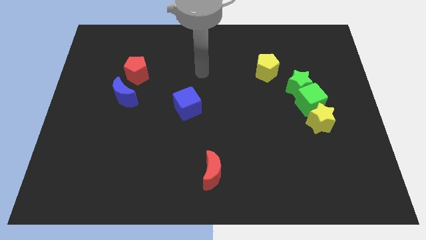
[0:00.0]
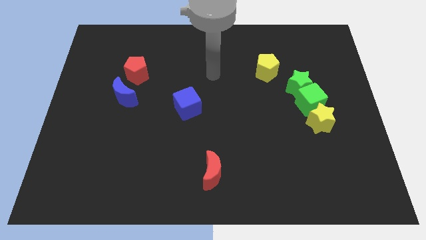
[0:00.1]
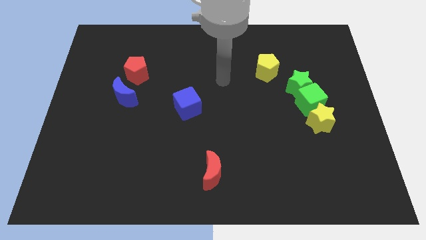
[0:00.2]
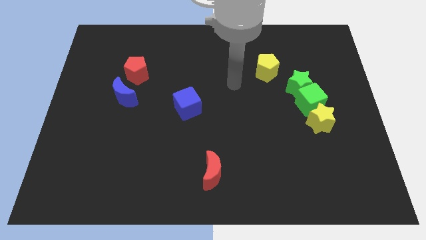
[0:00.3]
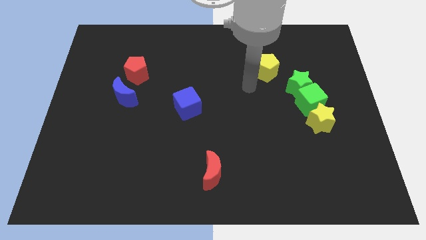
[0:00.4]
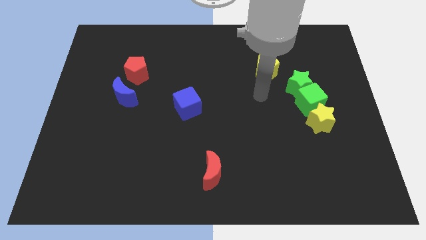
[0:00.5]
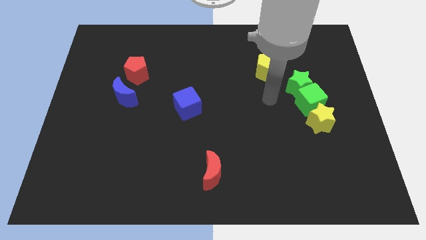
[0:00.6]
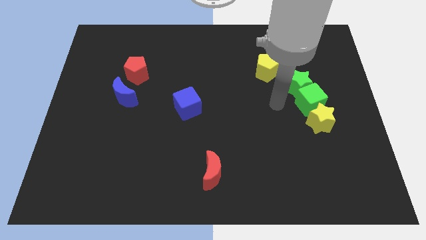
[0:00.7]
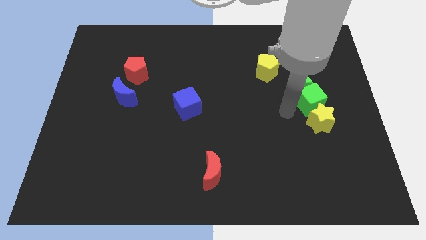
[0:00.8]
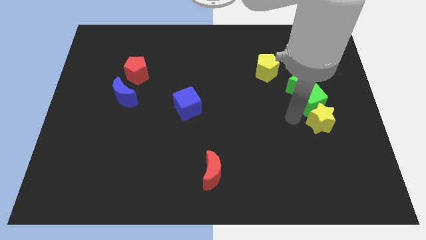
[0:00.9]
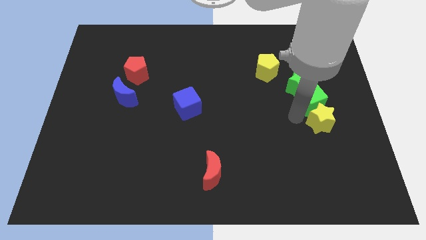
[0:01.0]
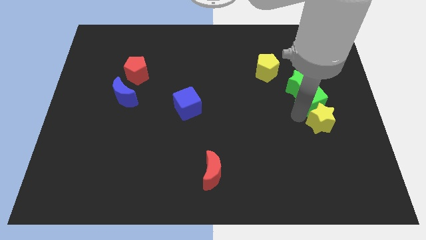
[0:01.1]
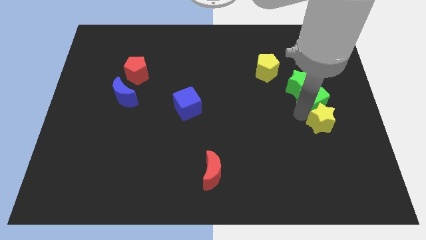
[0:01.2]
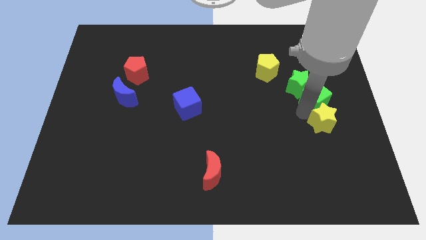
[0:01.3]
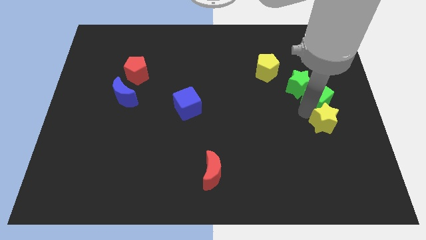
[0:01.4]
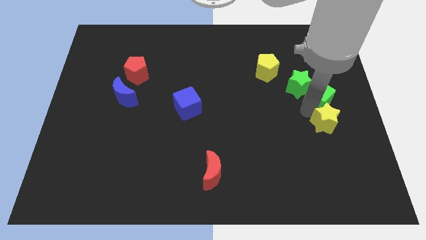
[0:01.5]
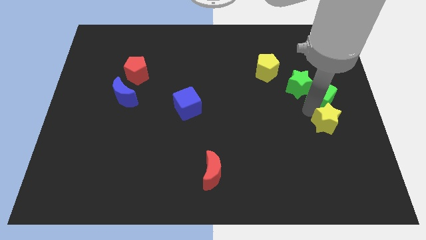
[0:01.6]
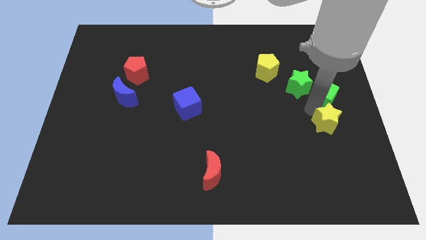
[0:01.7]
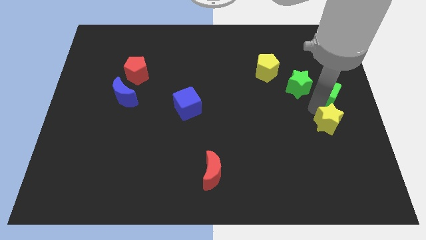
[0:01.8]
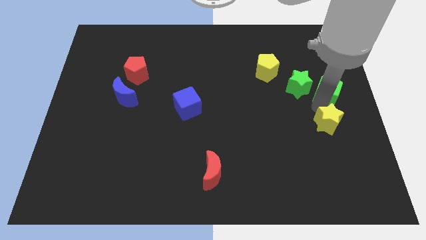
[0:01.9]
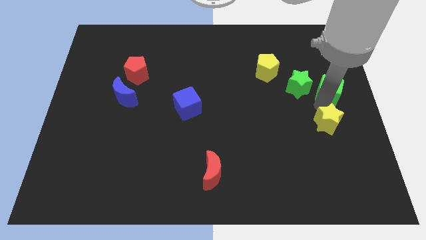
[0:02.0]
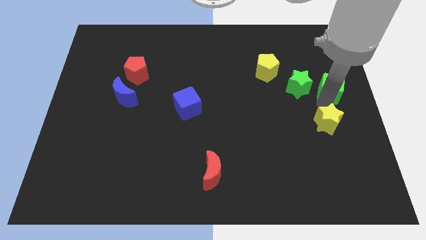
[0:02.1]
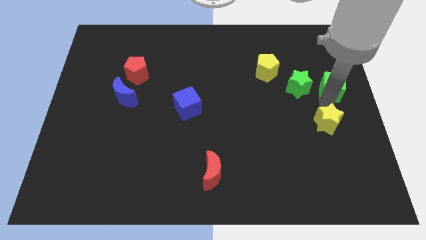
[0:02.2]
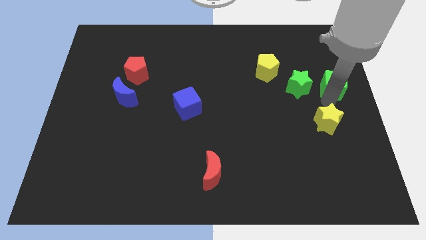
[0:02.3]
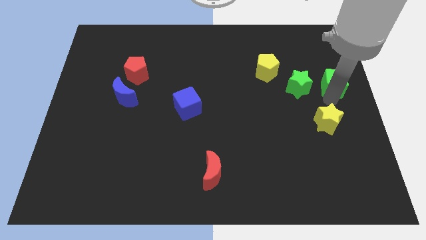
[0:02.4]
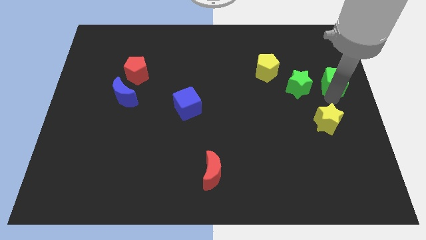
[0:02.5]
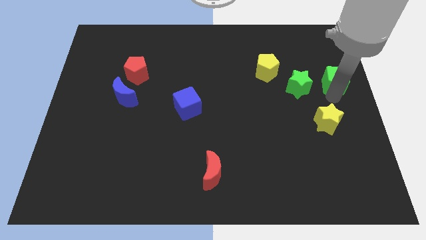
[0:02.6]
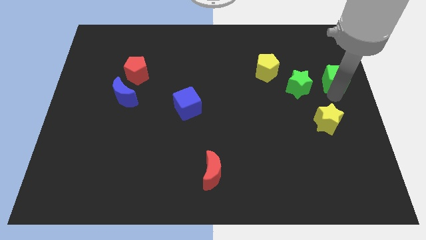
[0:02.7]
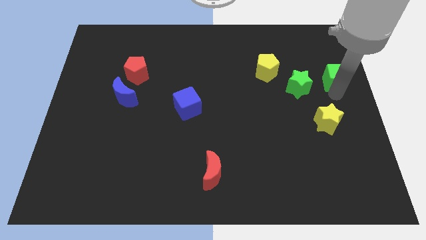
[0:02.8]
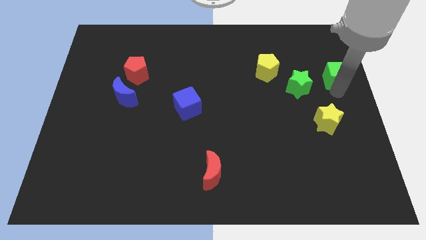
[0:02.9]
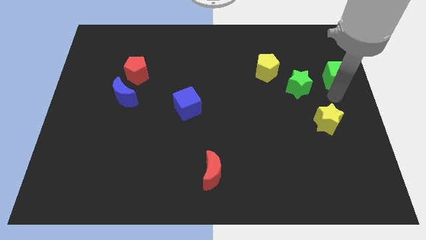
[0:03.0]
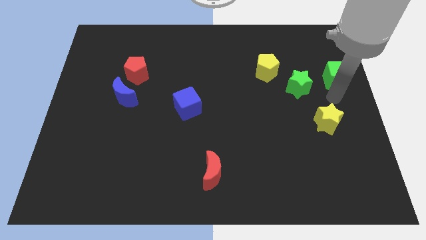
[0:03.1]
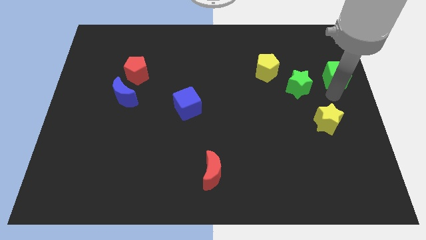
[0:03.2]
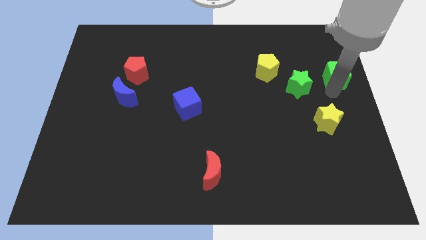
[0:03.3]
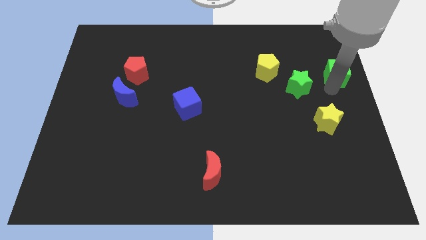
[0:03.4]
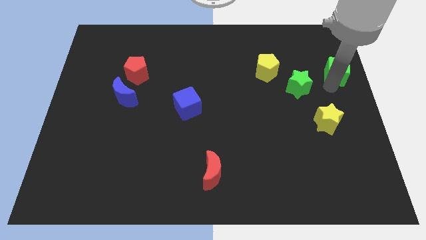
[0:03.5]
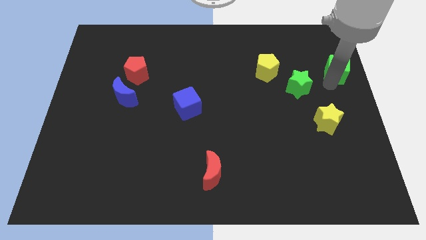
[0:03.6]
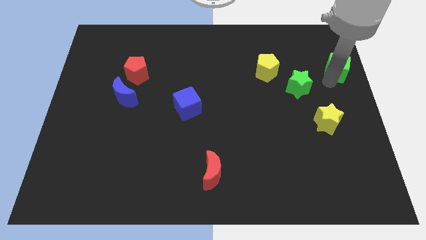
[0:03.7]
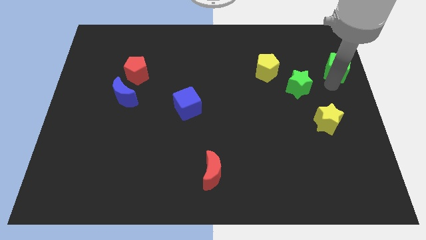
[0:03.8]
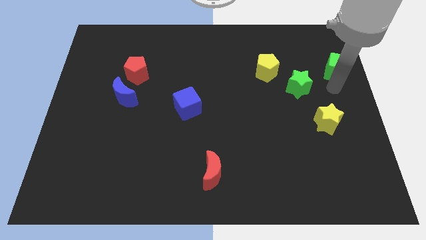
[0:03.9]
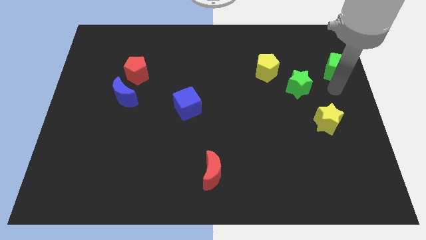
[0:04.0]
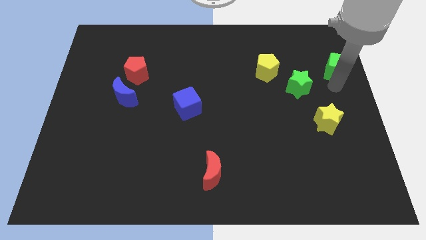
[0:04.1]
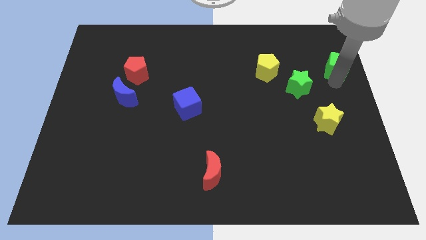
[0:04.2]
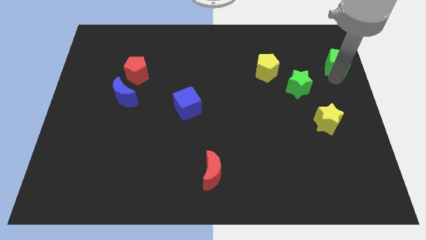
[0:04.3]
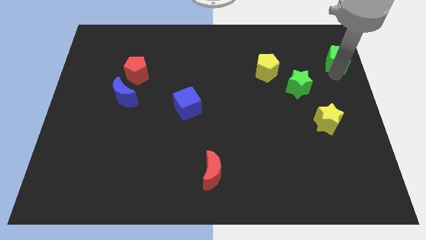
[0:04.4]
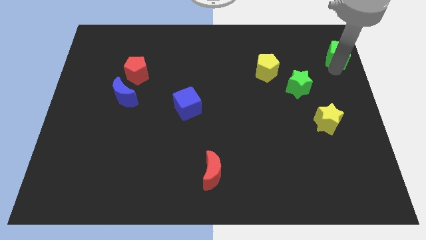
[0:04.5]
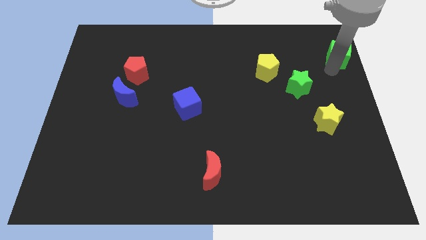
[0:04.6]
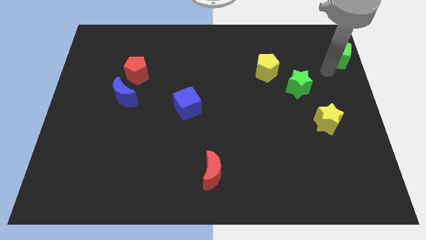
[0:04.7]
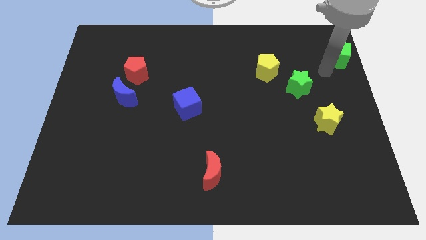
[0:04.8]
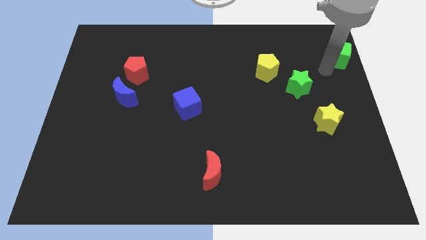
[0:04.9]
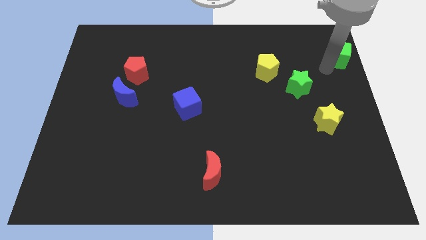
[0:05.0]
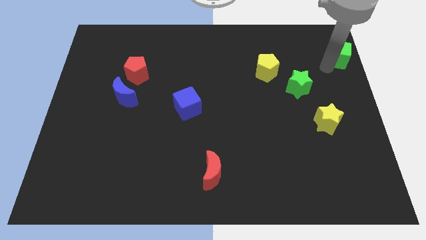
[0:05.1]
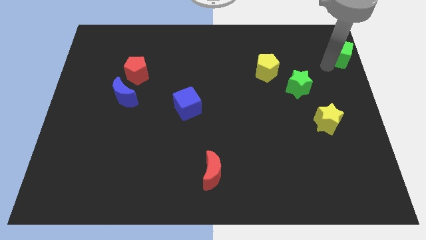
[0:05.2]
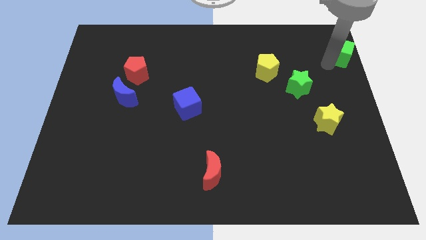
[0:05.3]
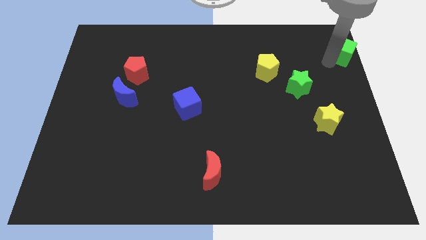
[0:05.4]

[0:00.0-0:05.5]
move the green cube to the top right of the board

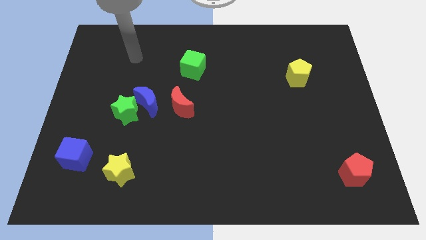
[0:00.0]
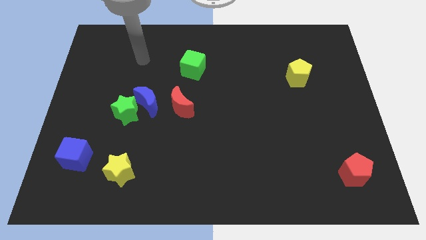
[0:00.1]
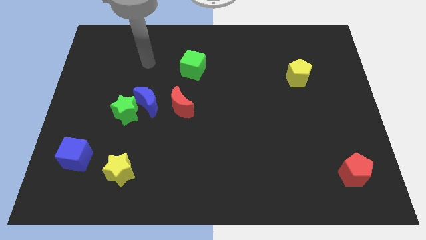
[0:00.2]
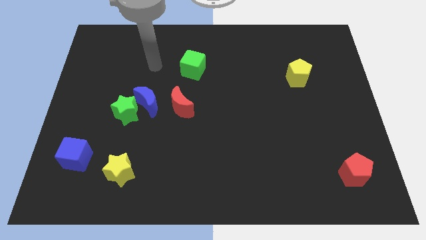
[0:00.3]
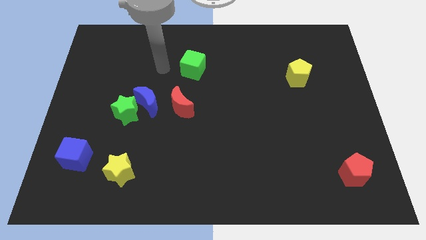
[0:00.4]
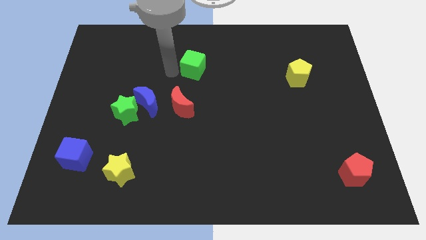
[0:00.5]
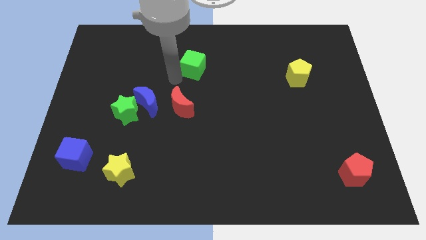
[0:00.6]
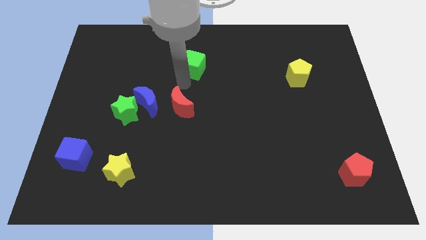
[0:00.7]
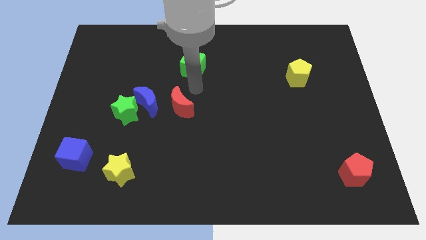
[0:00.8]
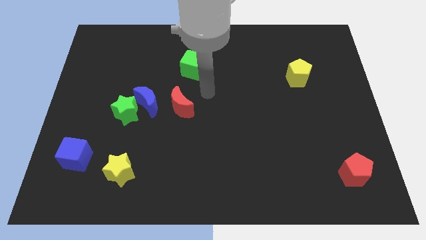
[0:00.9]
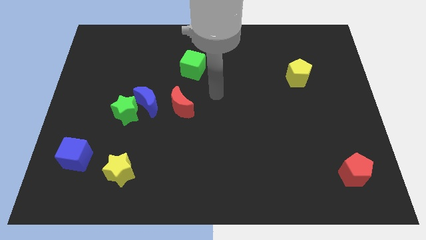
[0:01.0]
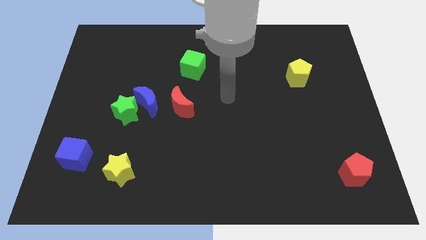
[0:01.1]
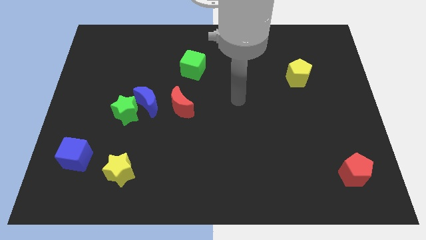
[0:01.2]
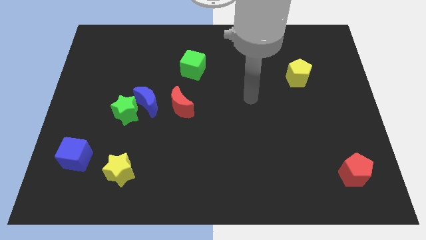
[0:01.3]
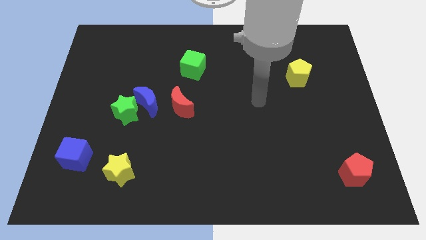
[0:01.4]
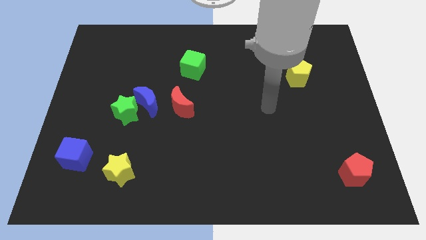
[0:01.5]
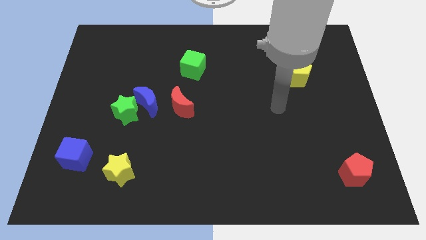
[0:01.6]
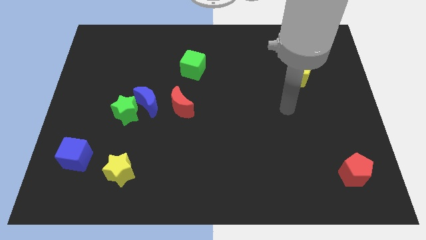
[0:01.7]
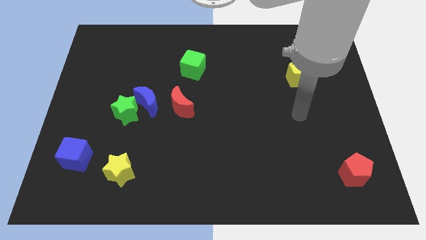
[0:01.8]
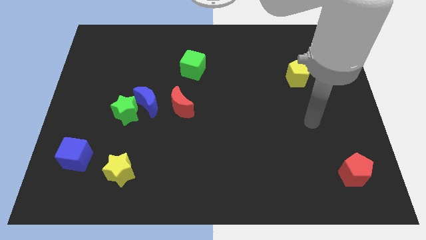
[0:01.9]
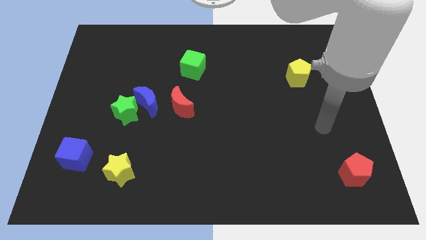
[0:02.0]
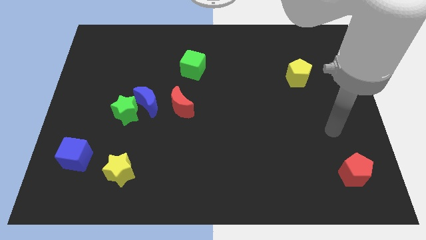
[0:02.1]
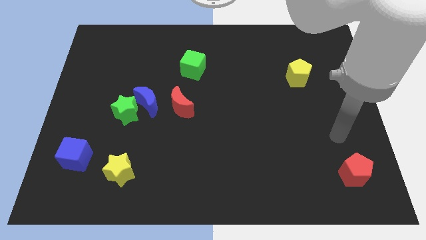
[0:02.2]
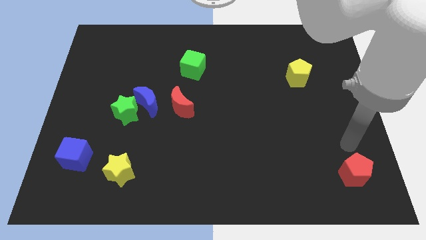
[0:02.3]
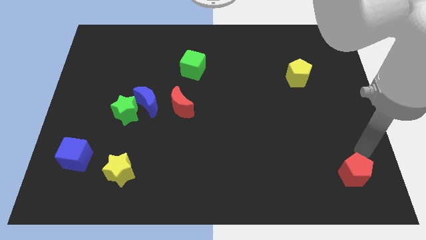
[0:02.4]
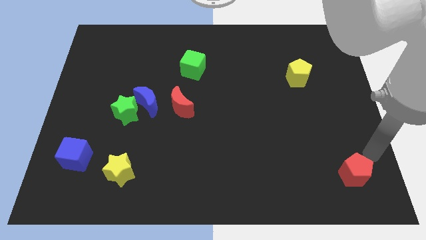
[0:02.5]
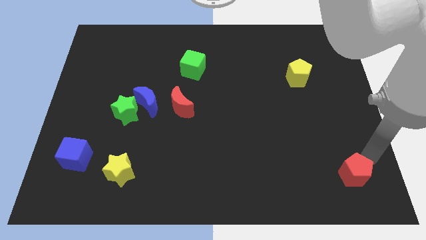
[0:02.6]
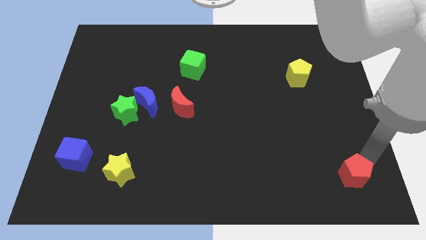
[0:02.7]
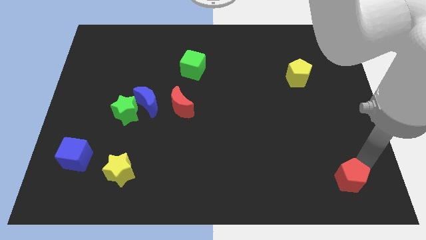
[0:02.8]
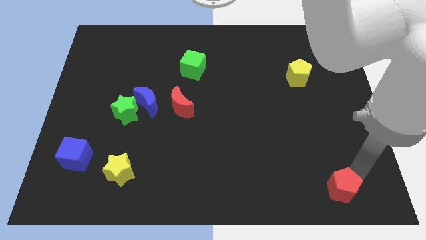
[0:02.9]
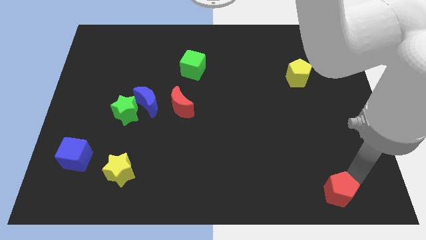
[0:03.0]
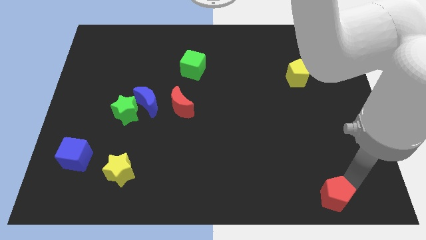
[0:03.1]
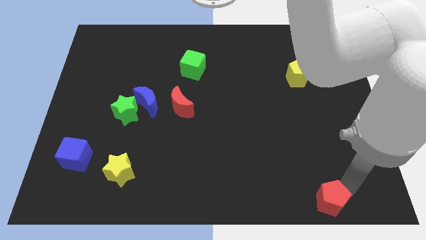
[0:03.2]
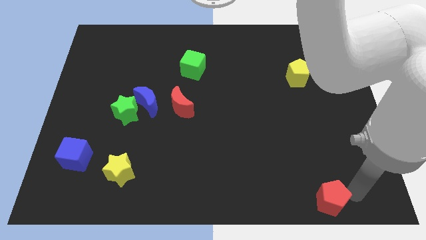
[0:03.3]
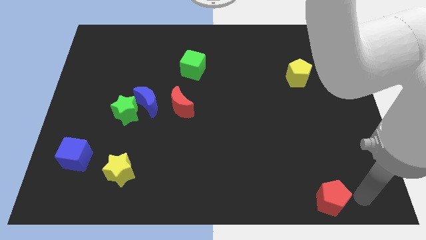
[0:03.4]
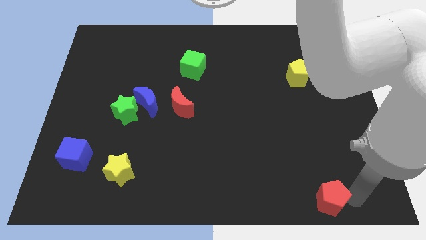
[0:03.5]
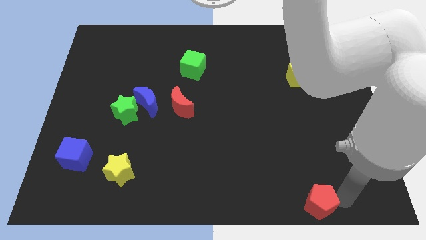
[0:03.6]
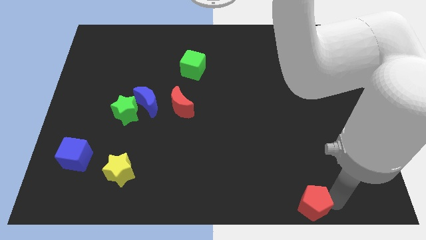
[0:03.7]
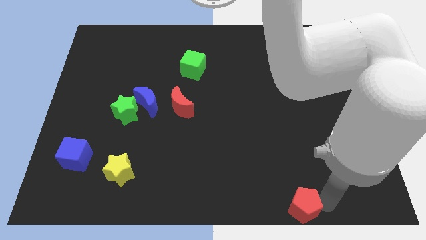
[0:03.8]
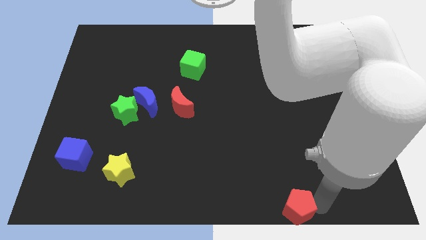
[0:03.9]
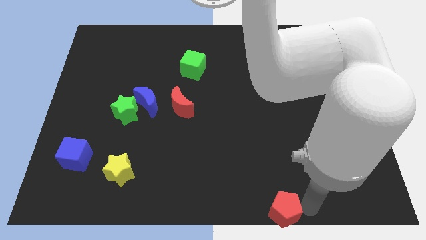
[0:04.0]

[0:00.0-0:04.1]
push the red pentagon to the bottom
